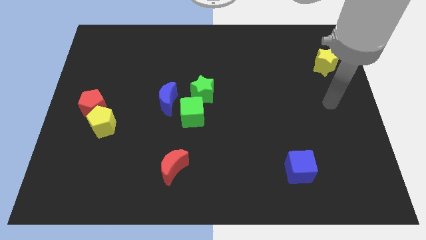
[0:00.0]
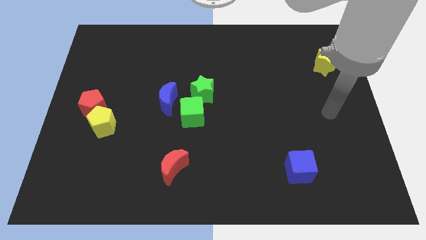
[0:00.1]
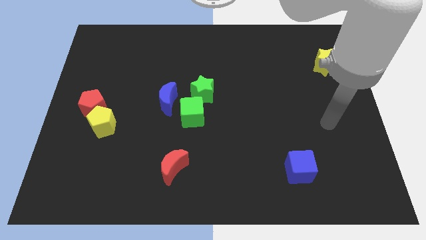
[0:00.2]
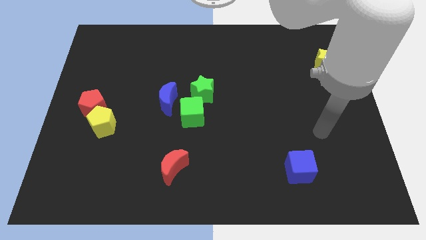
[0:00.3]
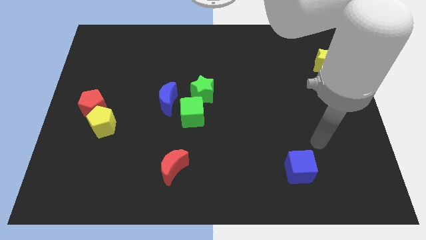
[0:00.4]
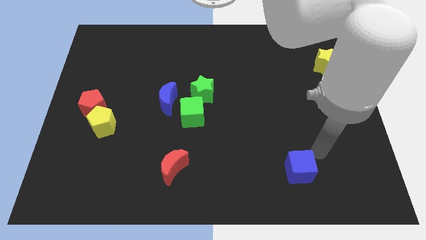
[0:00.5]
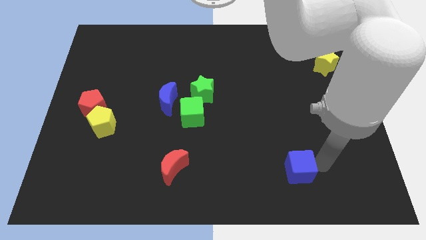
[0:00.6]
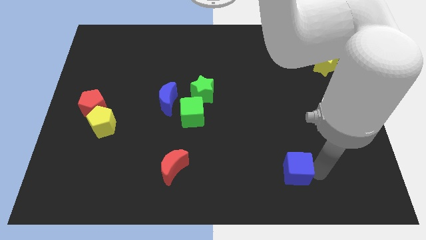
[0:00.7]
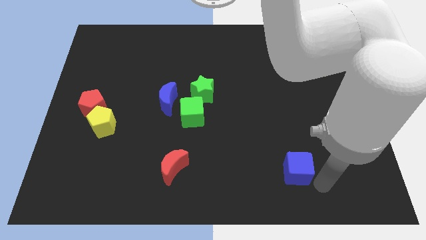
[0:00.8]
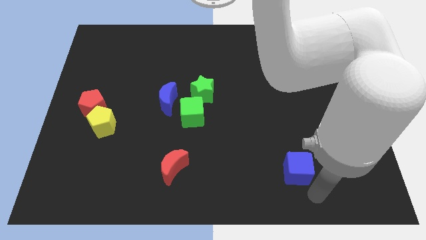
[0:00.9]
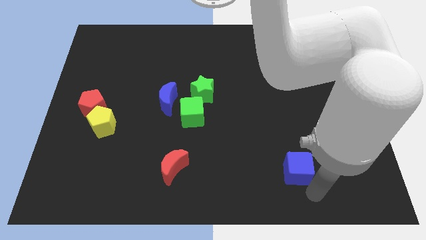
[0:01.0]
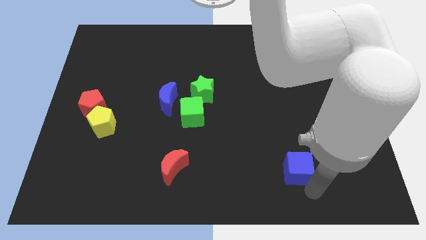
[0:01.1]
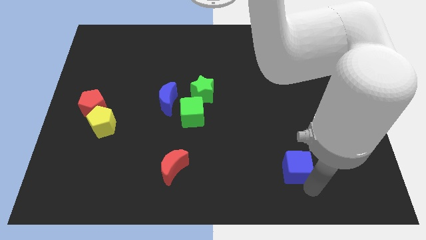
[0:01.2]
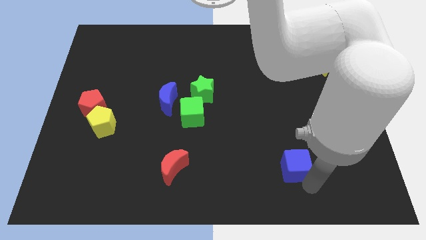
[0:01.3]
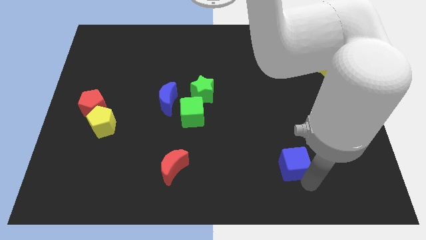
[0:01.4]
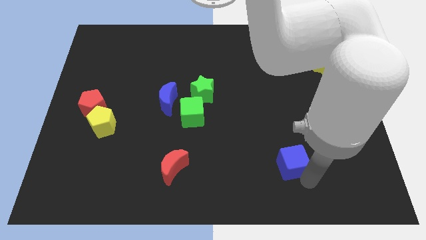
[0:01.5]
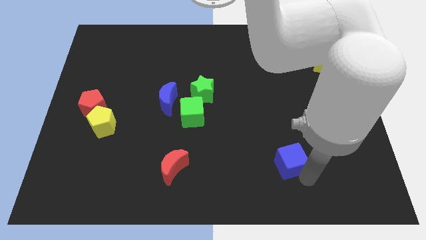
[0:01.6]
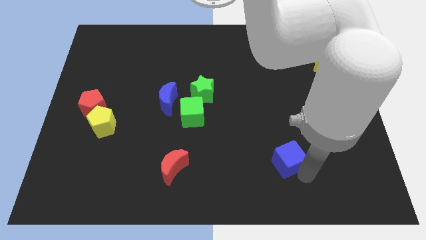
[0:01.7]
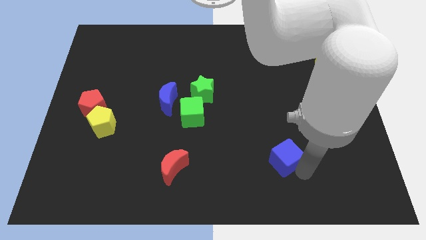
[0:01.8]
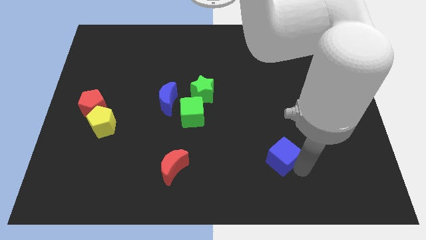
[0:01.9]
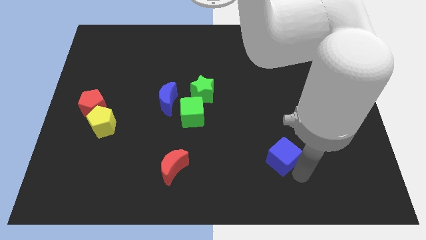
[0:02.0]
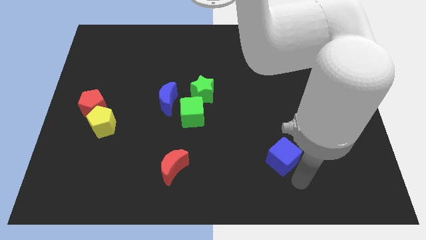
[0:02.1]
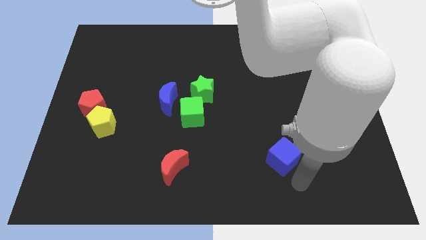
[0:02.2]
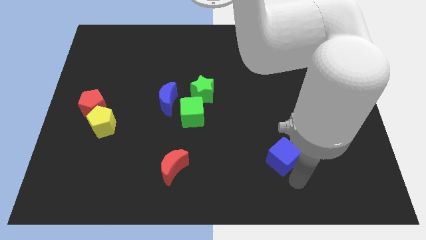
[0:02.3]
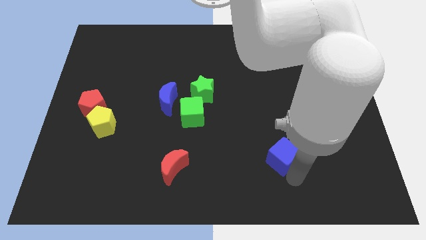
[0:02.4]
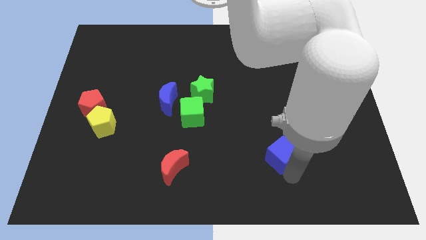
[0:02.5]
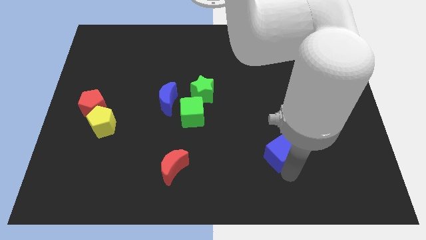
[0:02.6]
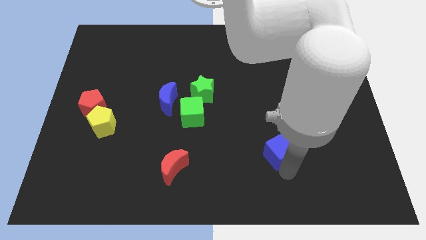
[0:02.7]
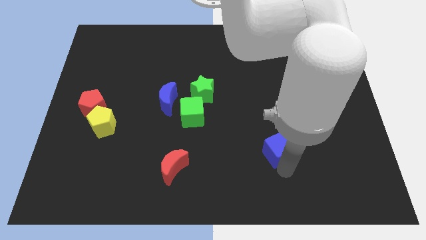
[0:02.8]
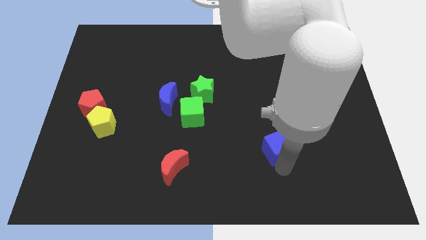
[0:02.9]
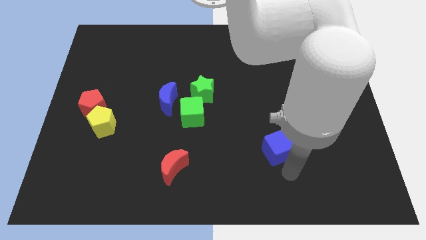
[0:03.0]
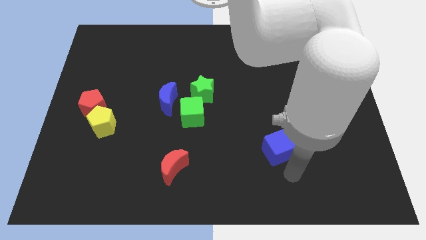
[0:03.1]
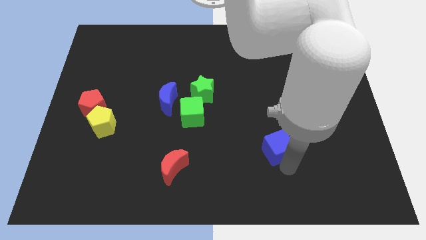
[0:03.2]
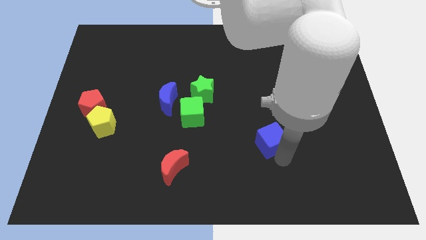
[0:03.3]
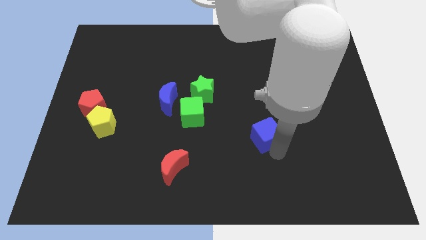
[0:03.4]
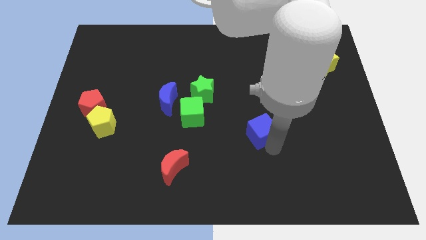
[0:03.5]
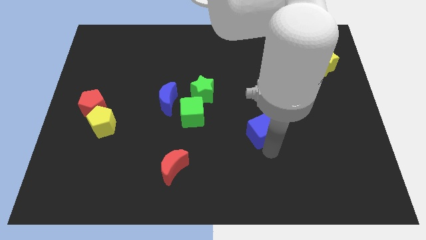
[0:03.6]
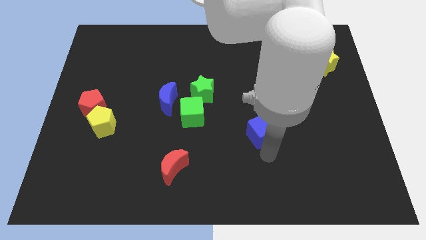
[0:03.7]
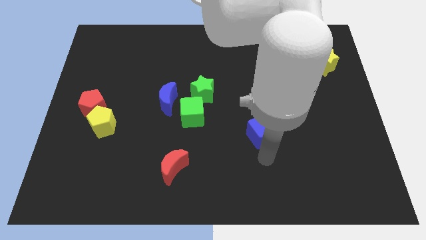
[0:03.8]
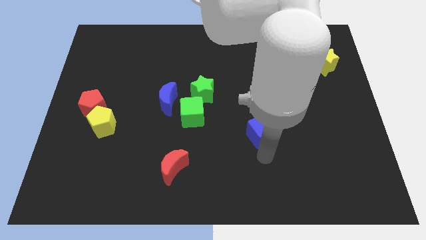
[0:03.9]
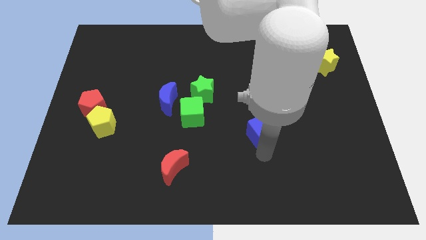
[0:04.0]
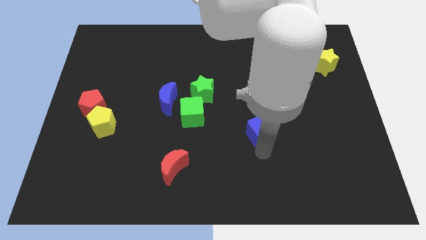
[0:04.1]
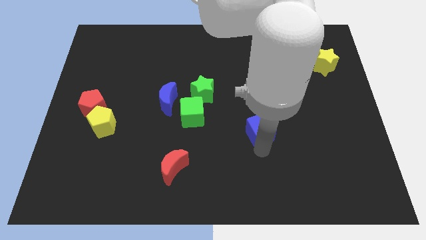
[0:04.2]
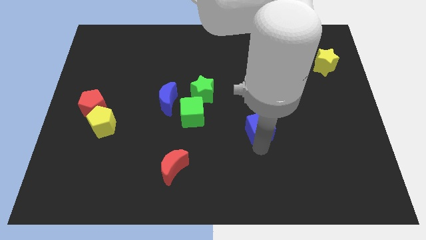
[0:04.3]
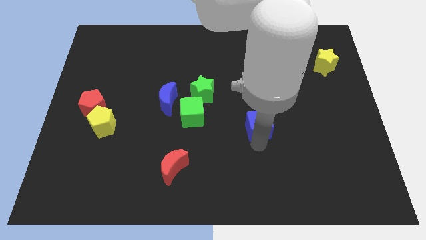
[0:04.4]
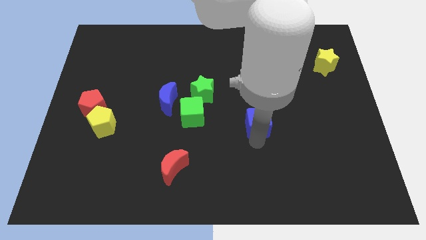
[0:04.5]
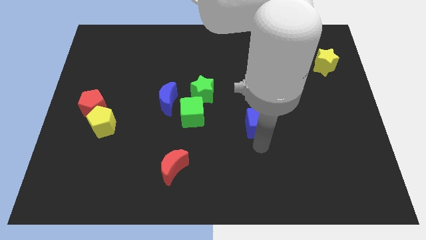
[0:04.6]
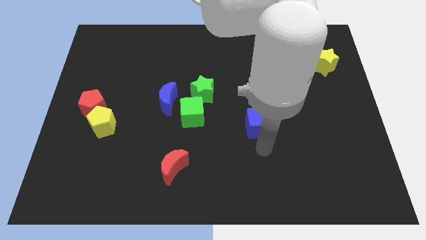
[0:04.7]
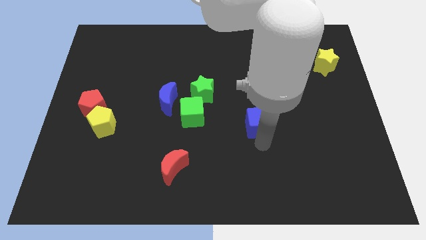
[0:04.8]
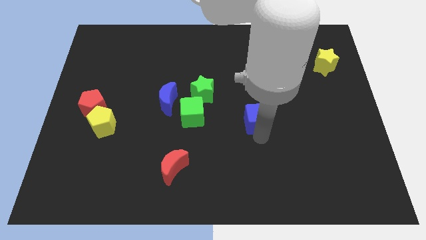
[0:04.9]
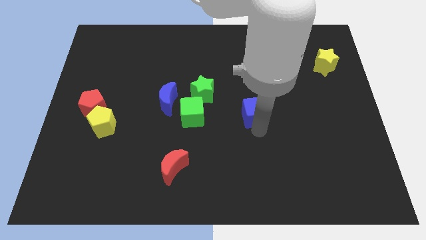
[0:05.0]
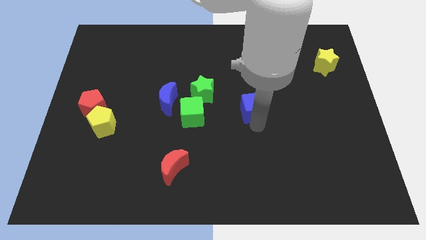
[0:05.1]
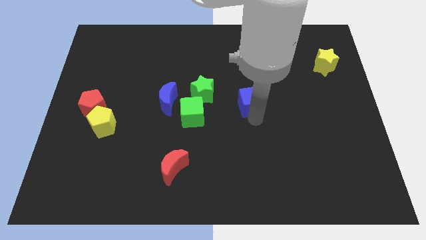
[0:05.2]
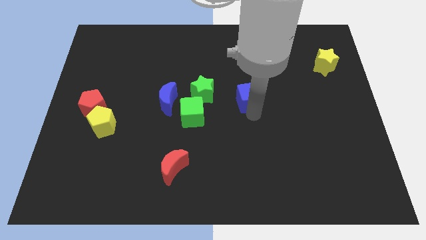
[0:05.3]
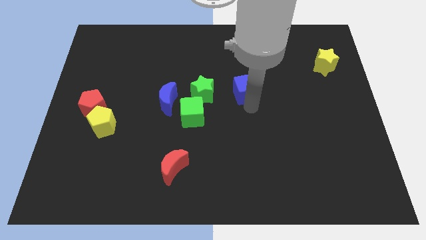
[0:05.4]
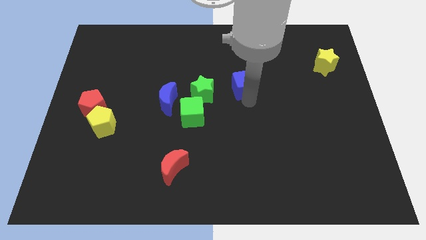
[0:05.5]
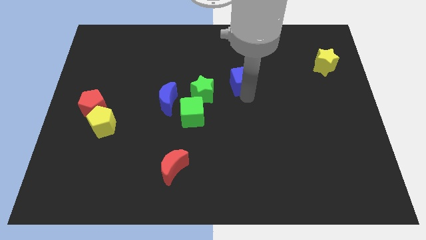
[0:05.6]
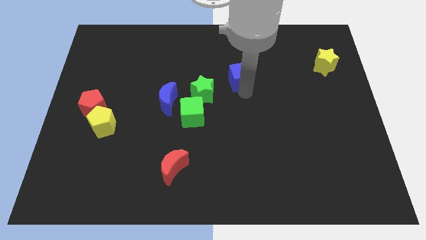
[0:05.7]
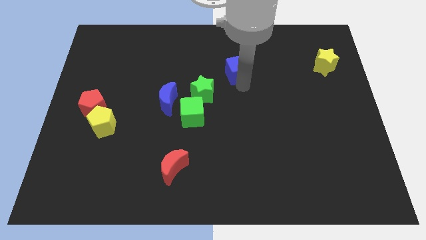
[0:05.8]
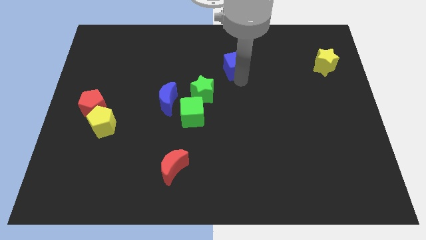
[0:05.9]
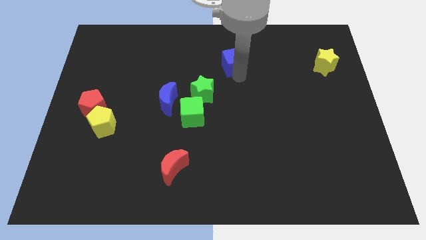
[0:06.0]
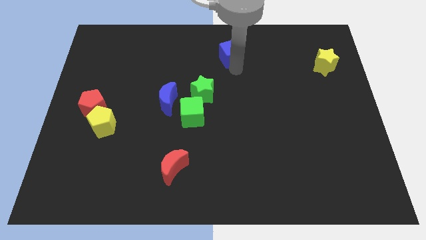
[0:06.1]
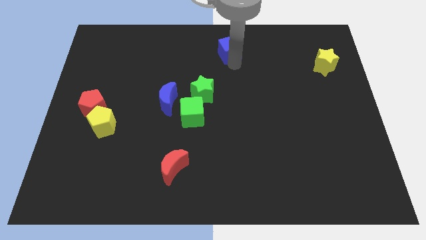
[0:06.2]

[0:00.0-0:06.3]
push the blue cube to the top side

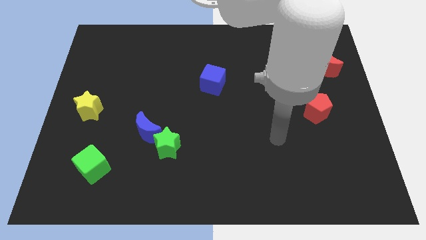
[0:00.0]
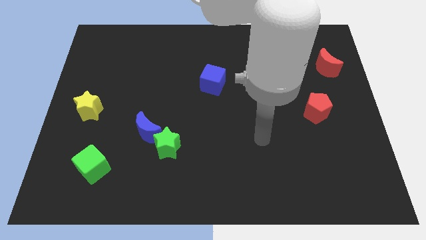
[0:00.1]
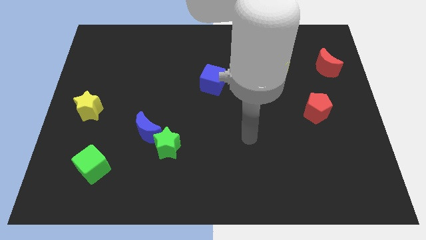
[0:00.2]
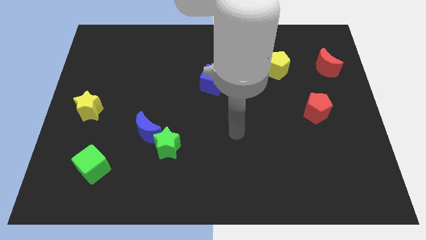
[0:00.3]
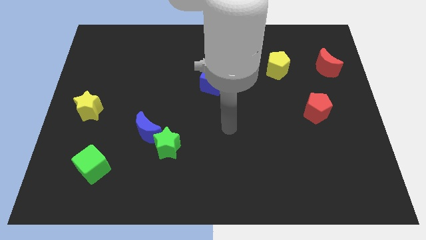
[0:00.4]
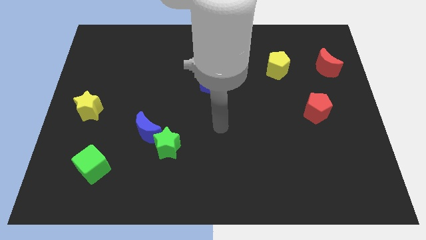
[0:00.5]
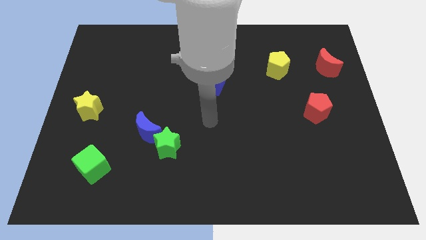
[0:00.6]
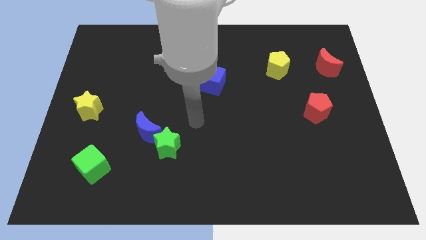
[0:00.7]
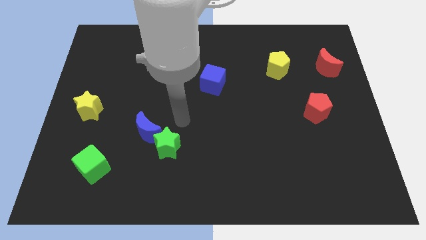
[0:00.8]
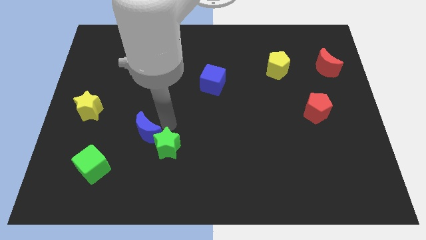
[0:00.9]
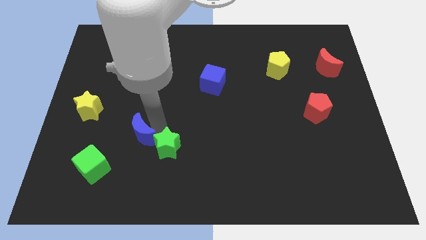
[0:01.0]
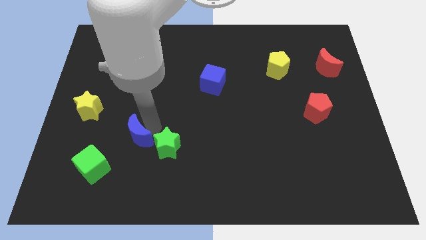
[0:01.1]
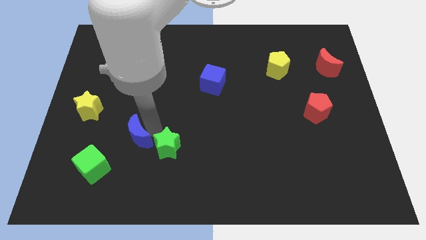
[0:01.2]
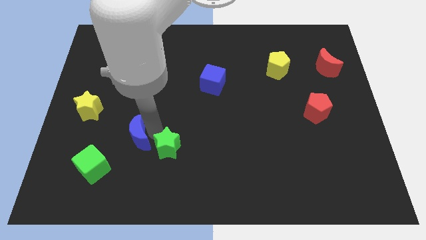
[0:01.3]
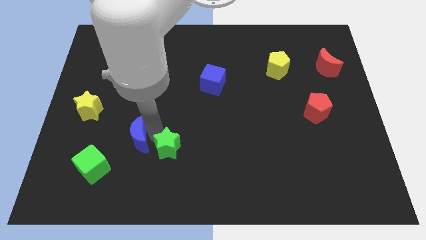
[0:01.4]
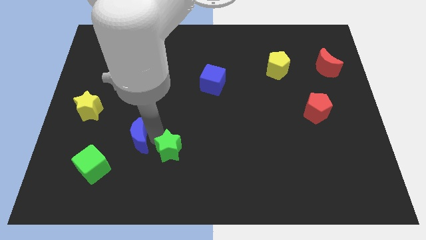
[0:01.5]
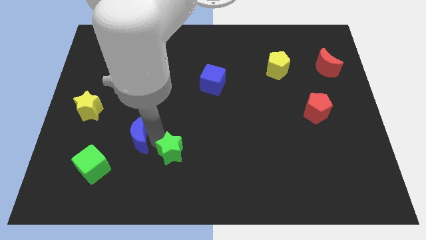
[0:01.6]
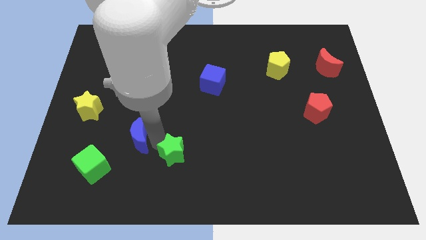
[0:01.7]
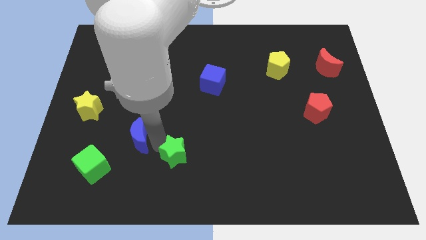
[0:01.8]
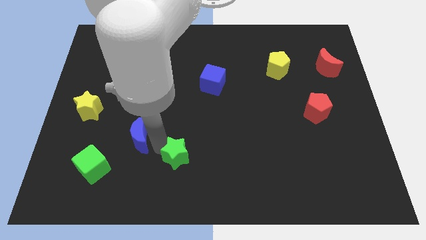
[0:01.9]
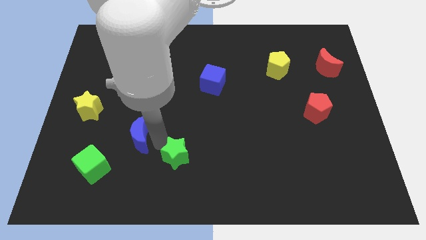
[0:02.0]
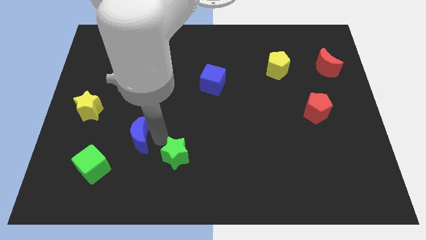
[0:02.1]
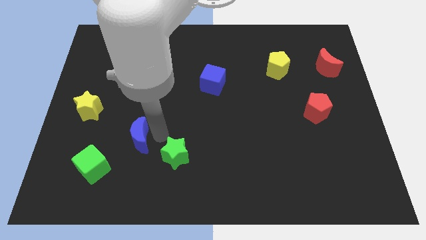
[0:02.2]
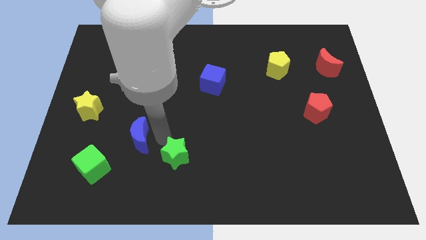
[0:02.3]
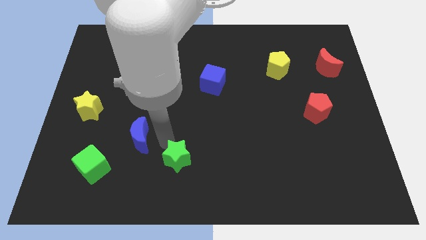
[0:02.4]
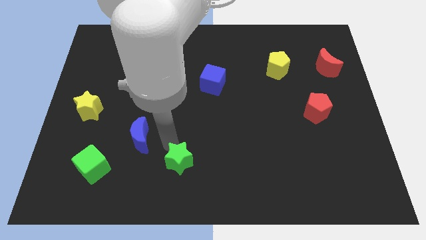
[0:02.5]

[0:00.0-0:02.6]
push the green star to the bottom side
